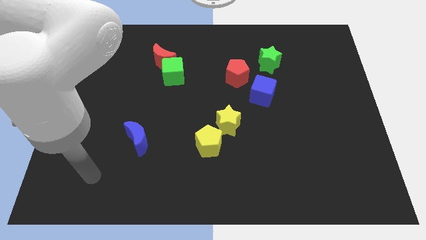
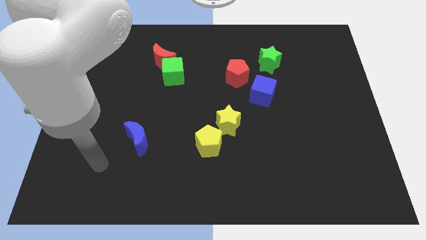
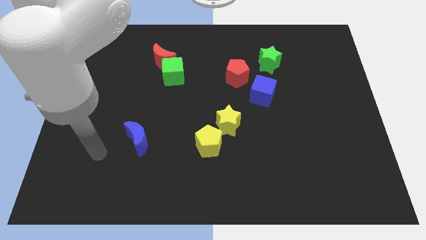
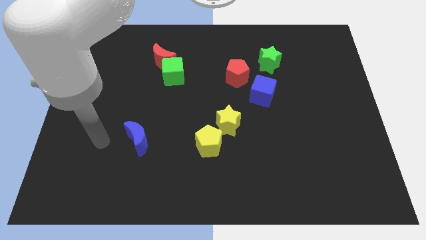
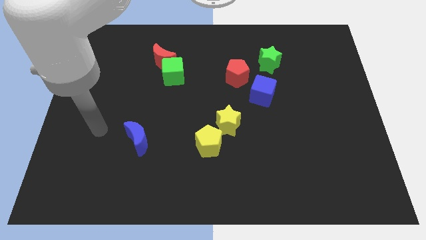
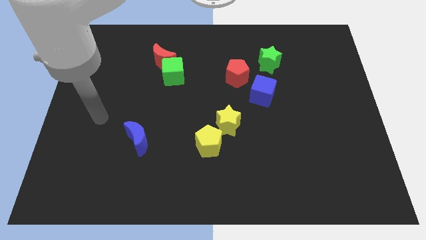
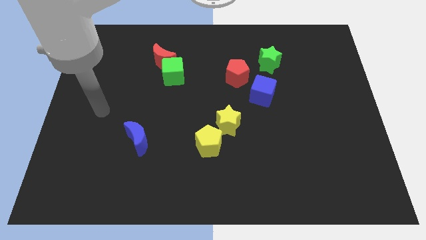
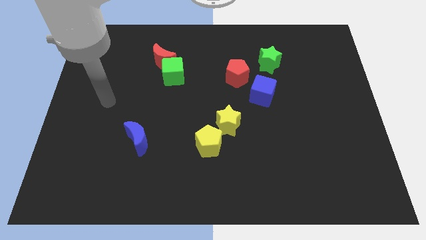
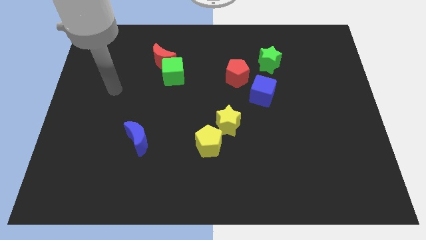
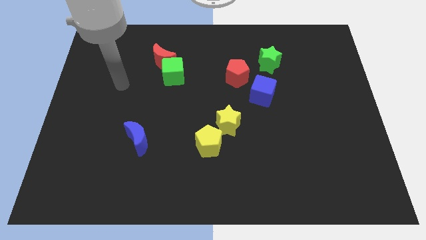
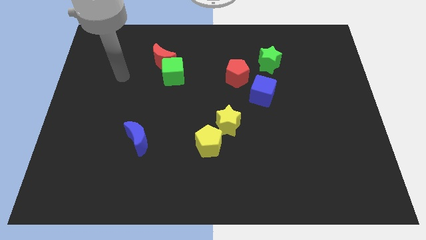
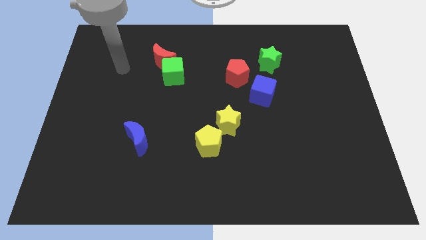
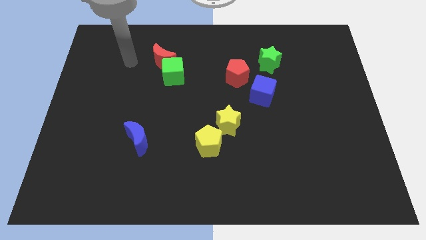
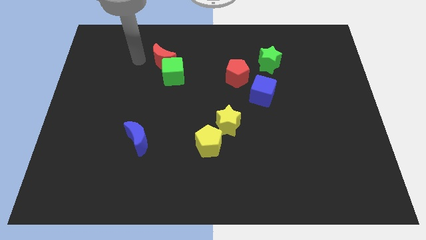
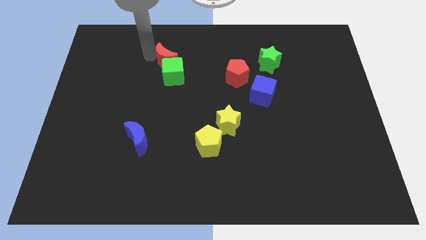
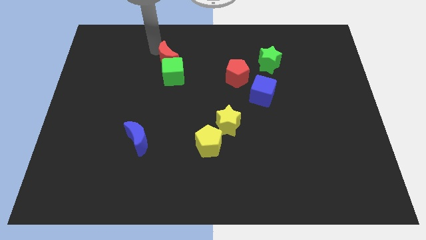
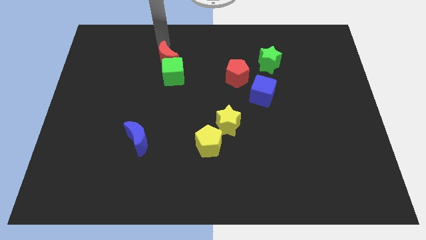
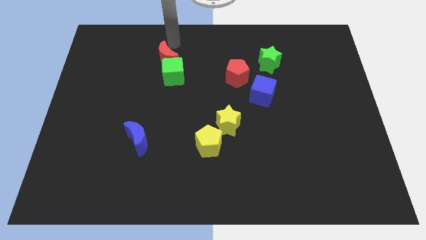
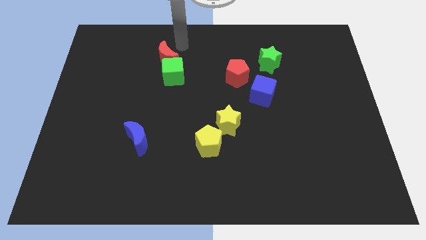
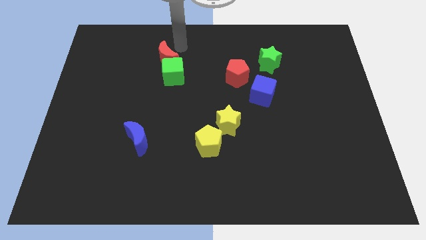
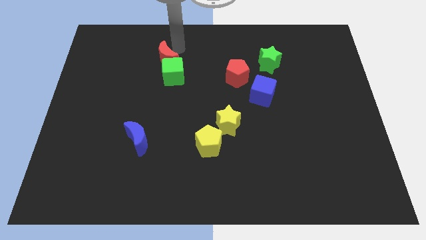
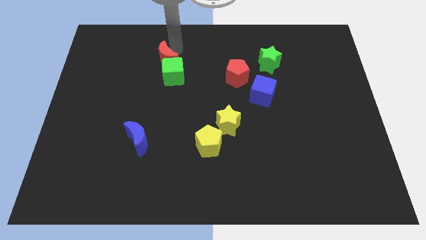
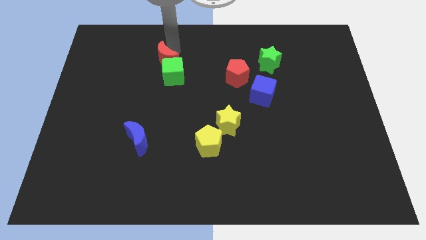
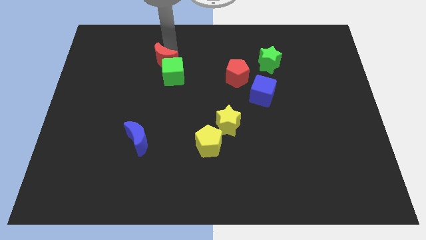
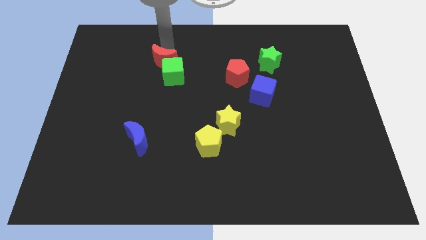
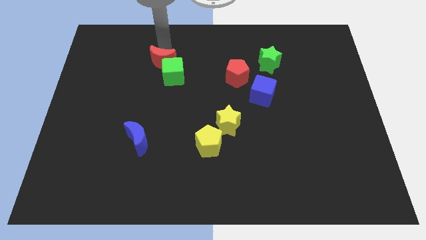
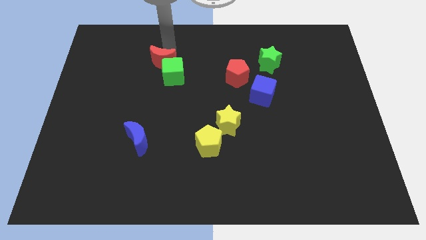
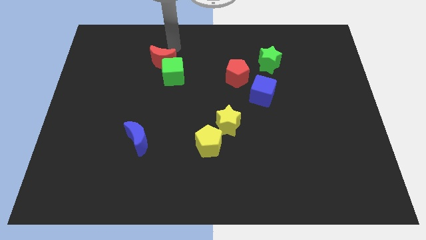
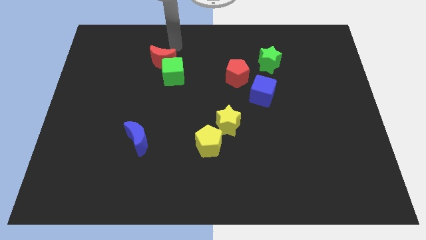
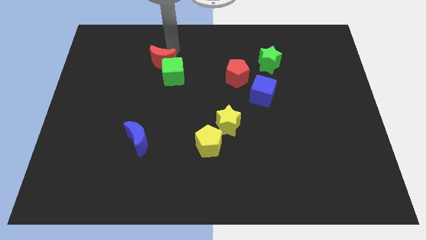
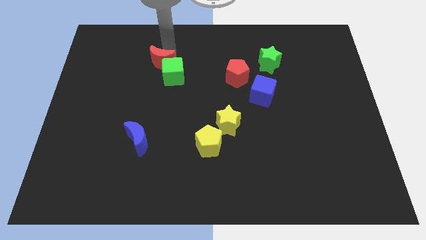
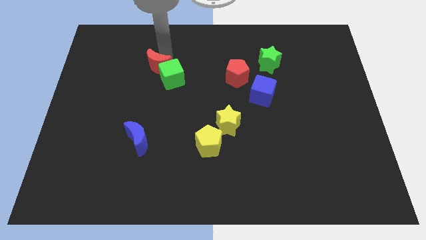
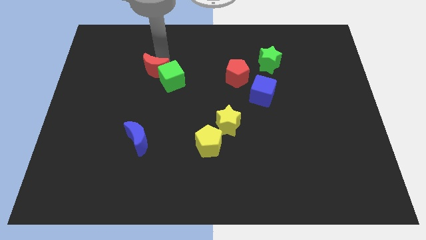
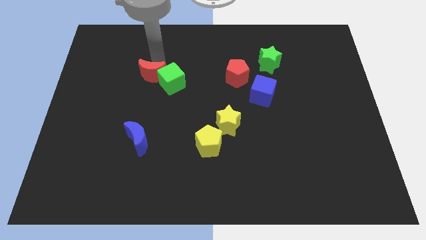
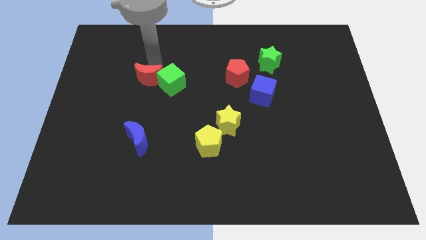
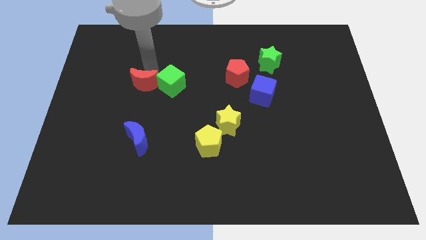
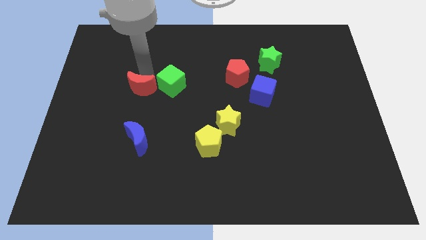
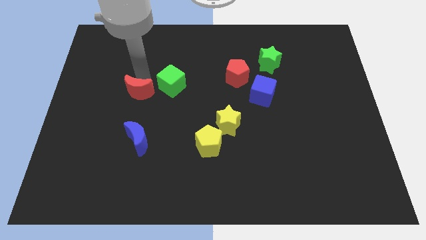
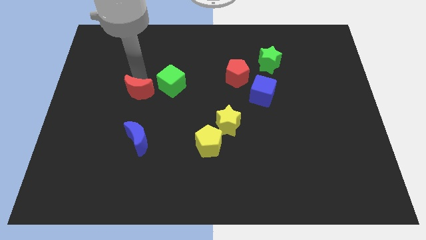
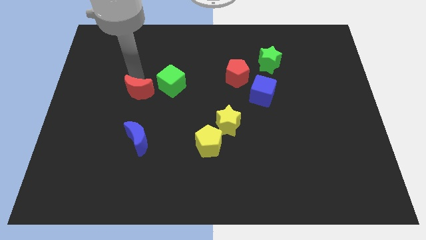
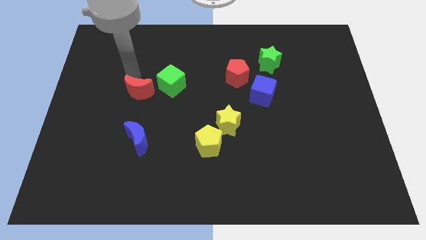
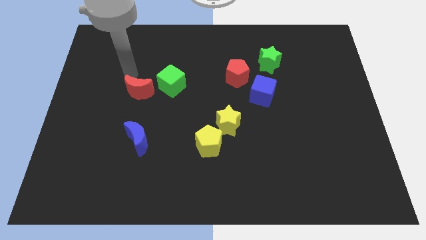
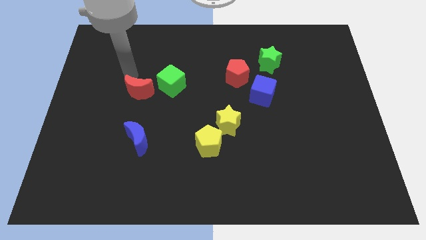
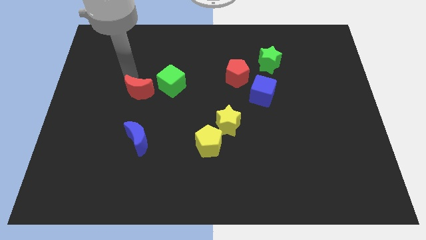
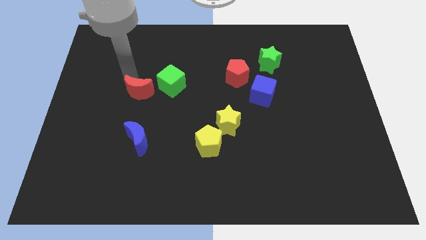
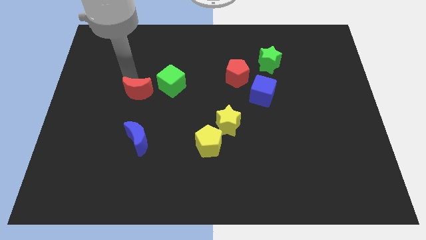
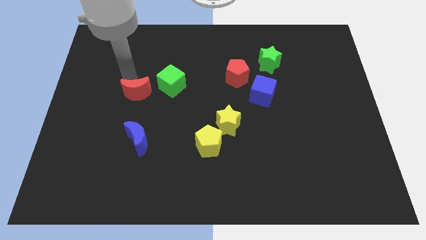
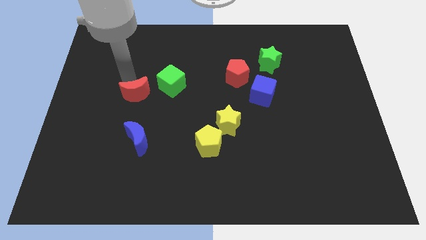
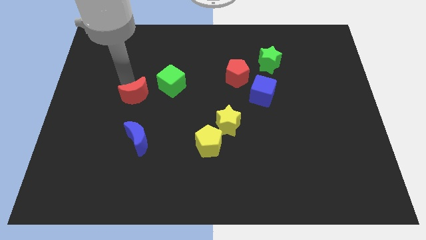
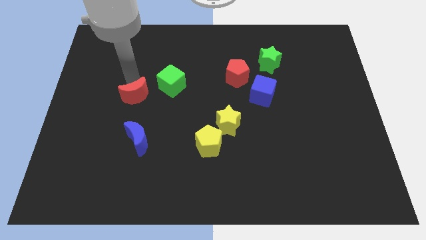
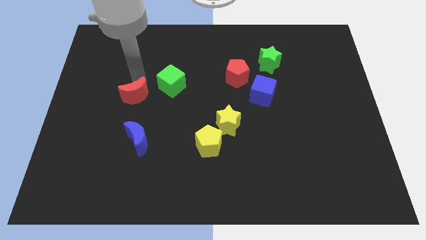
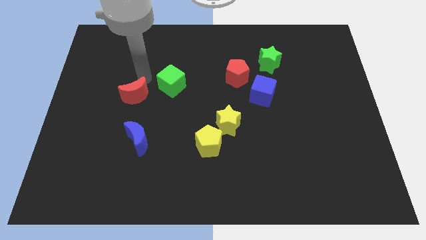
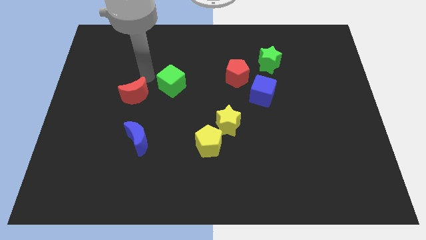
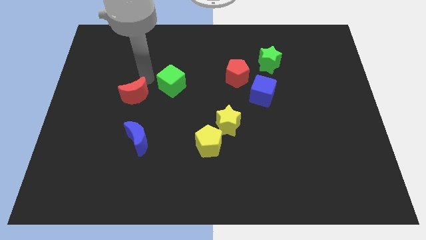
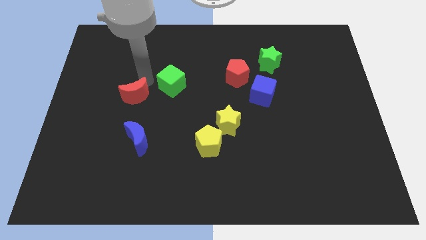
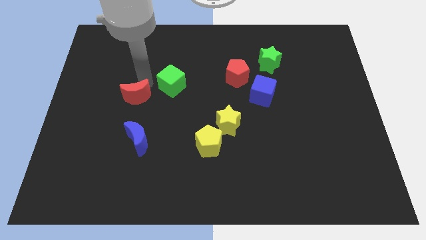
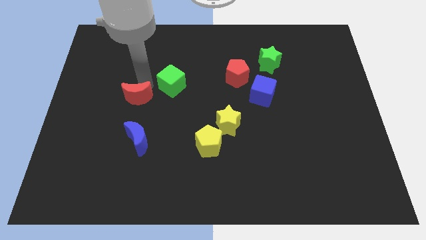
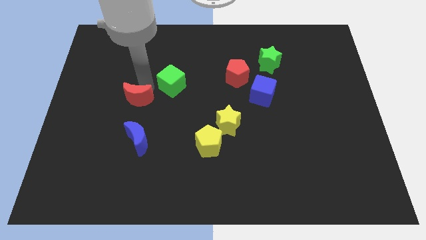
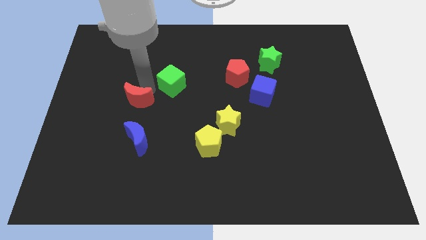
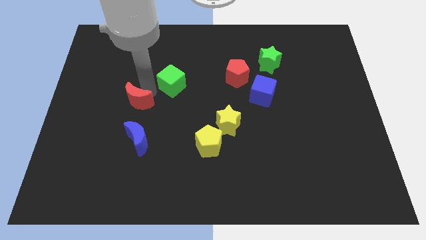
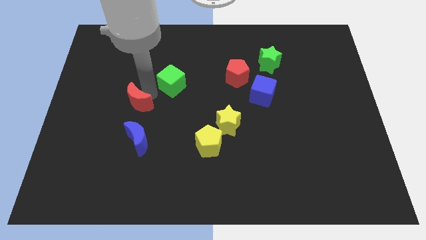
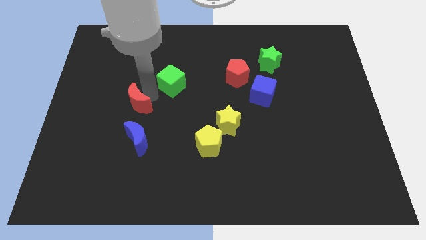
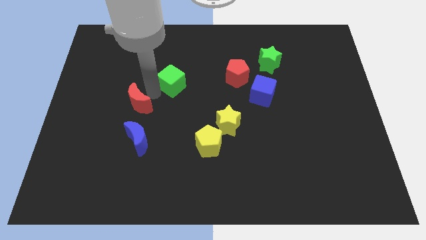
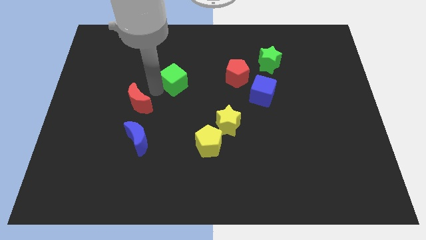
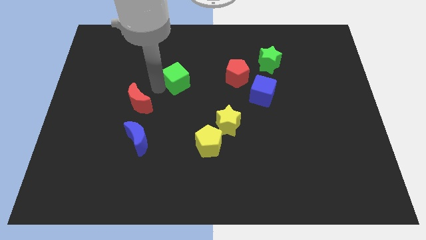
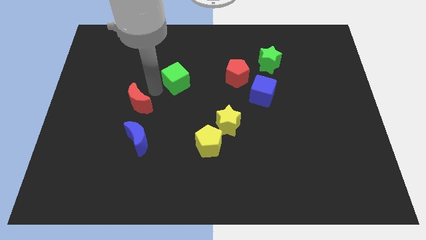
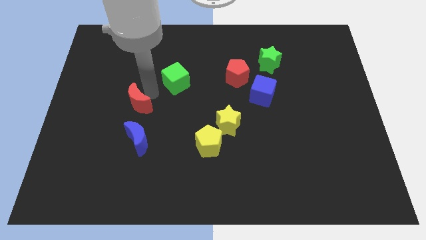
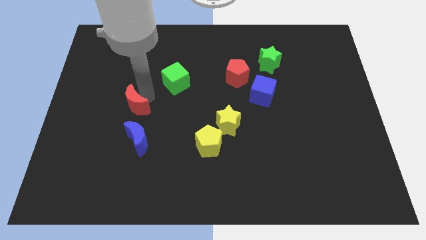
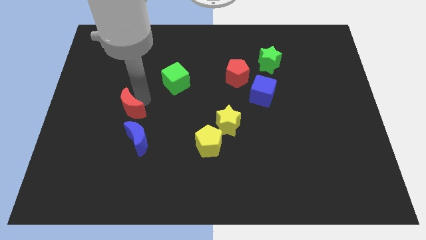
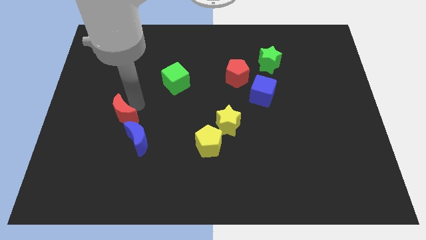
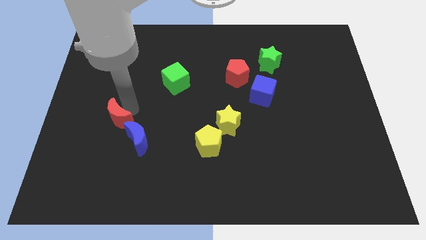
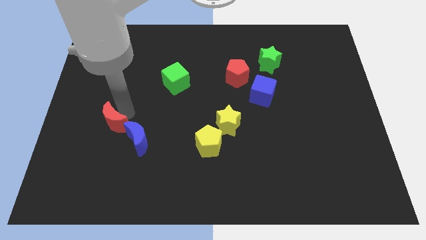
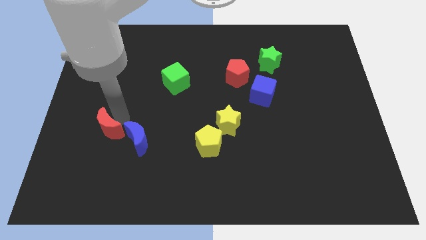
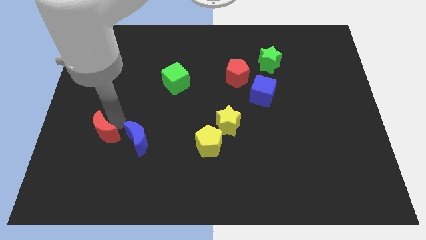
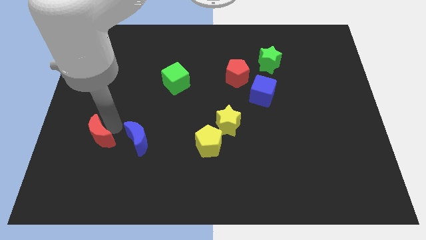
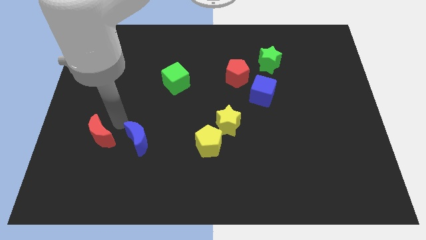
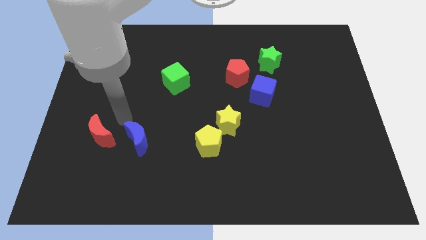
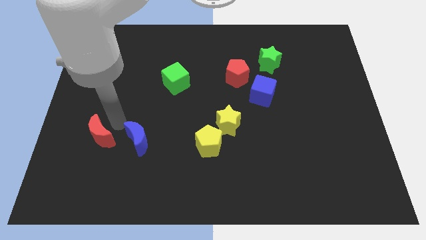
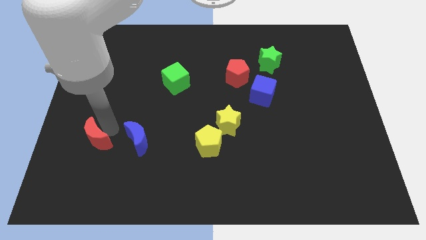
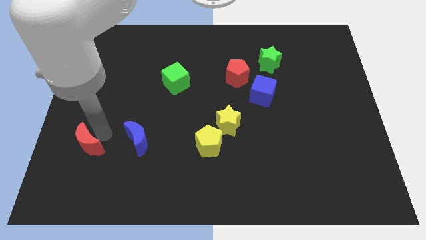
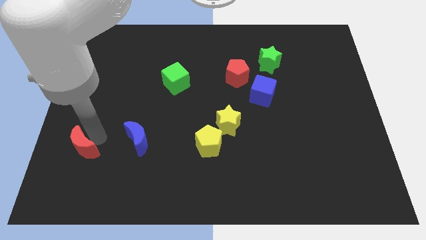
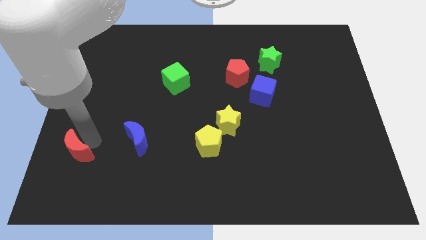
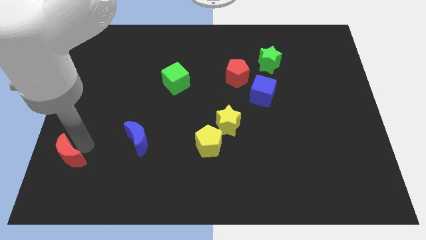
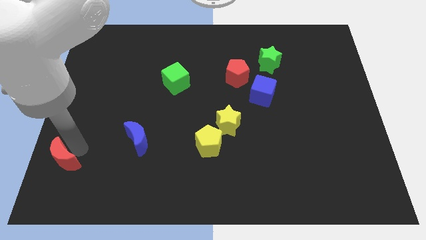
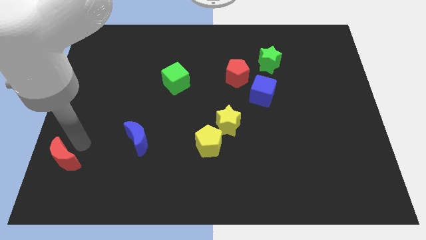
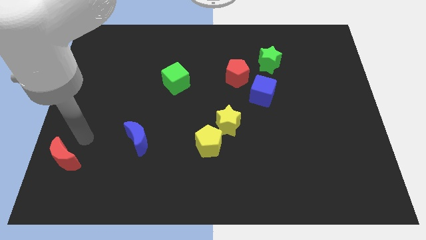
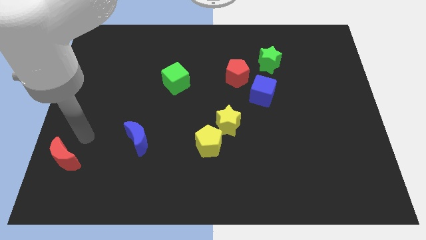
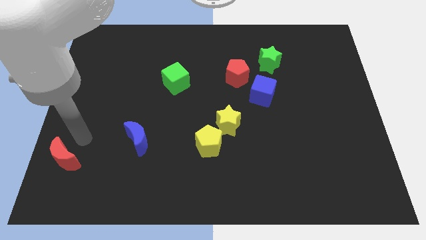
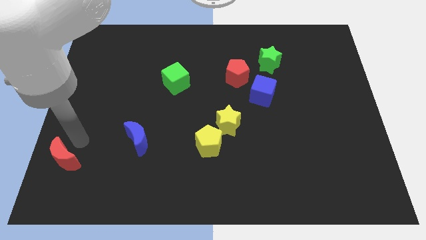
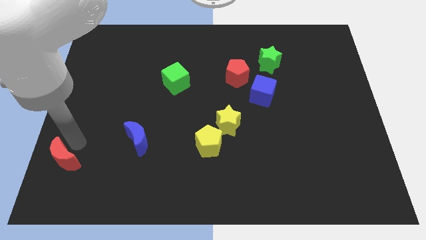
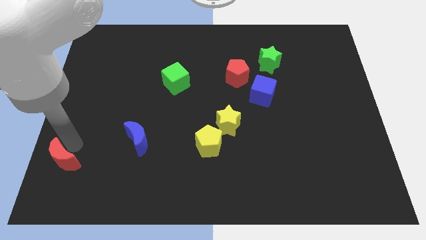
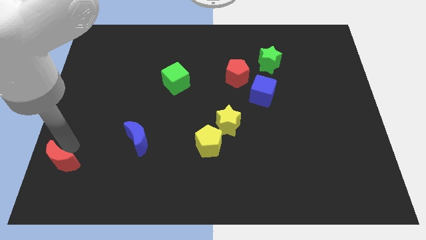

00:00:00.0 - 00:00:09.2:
push the red moon to the bottom left of the board
